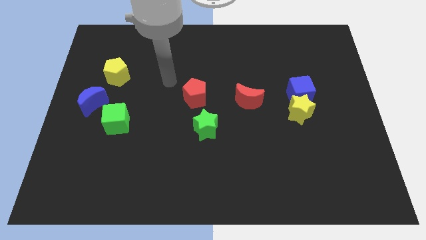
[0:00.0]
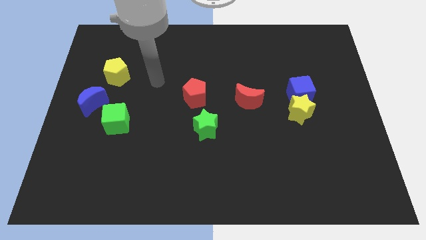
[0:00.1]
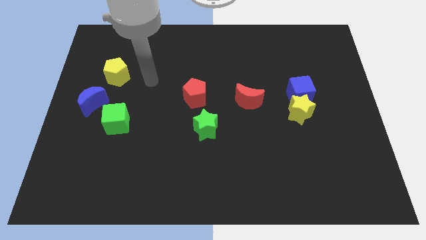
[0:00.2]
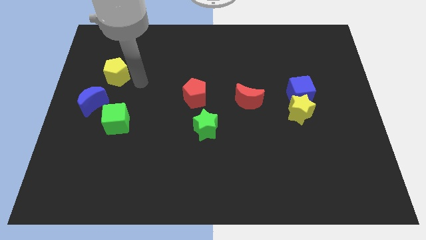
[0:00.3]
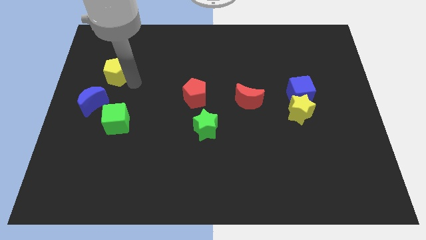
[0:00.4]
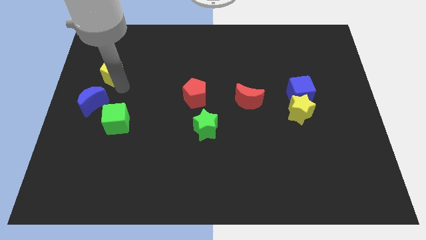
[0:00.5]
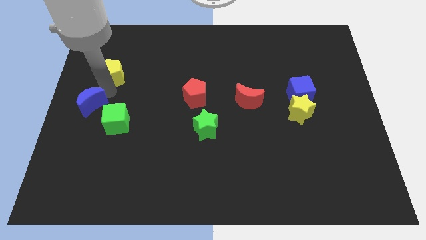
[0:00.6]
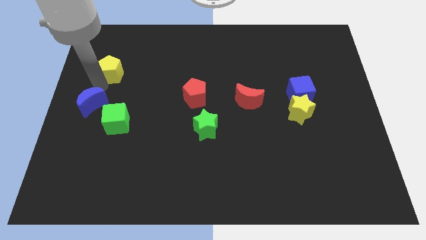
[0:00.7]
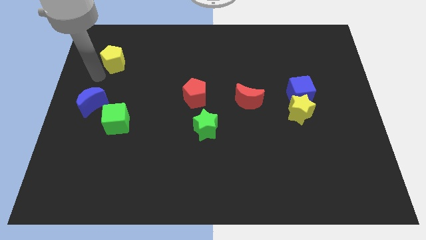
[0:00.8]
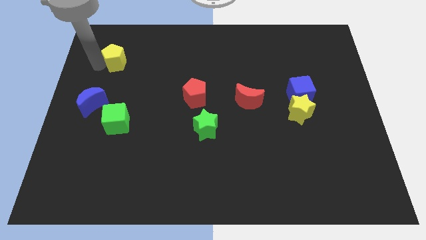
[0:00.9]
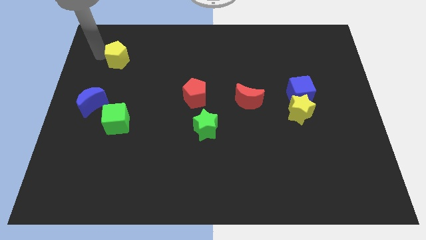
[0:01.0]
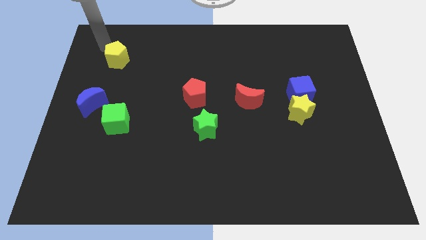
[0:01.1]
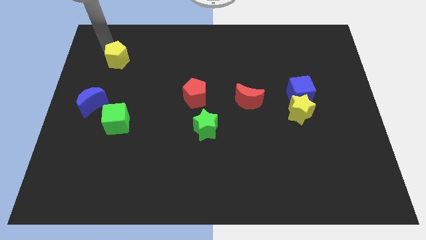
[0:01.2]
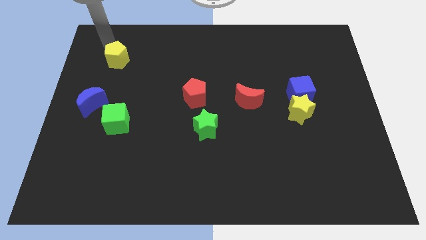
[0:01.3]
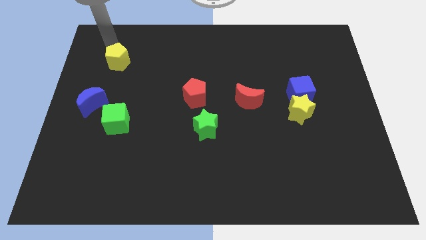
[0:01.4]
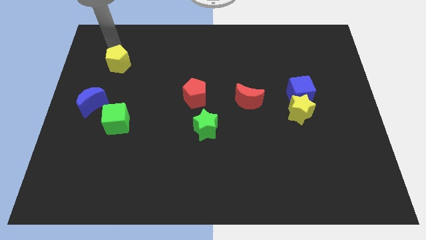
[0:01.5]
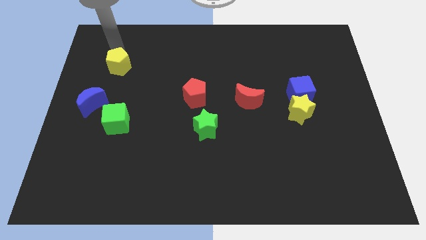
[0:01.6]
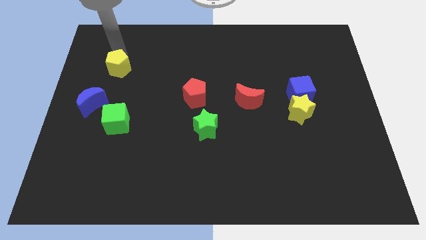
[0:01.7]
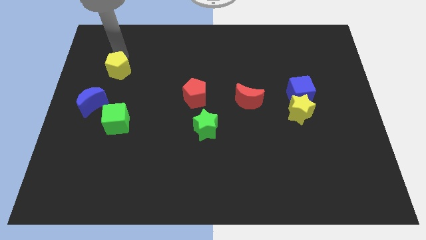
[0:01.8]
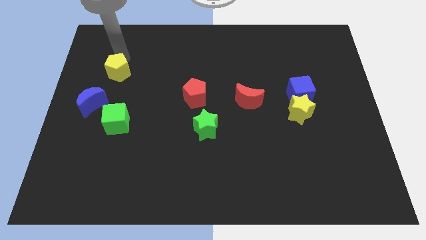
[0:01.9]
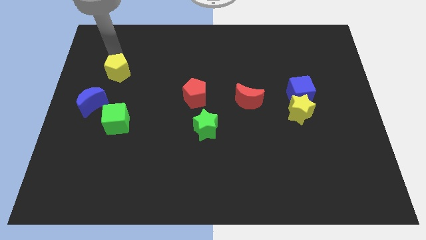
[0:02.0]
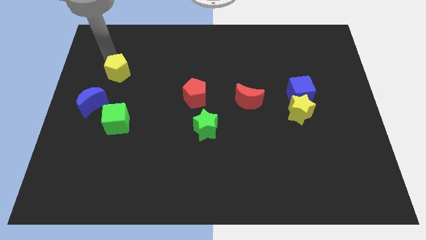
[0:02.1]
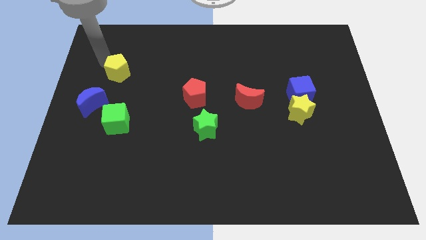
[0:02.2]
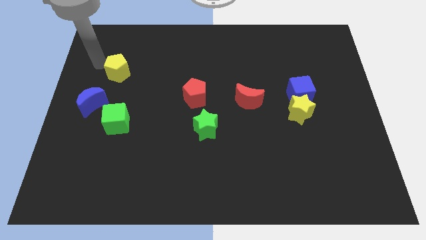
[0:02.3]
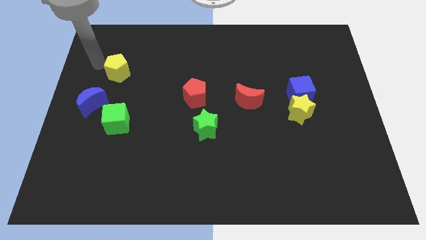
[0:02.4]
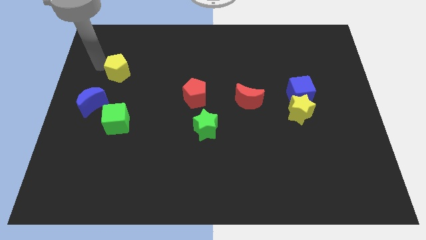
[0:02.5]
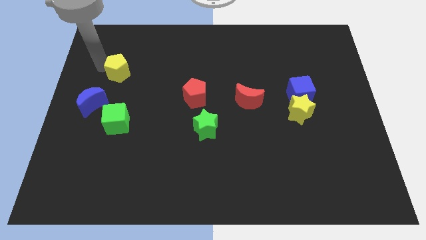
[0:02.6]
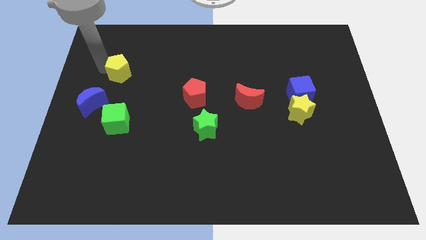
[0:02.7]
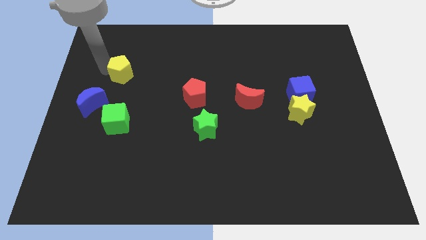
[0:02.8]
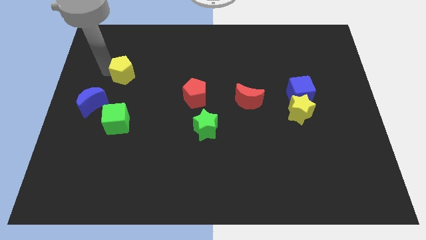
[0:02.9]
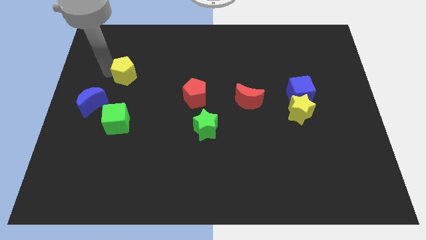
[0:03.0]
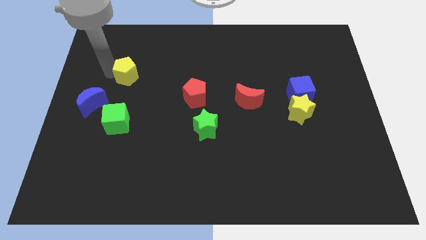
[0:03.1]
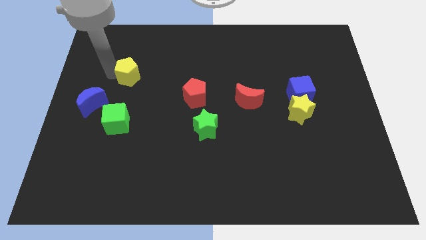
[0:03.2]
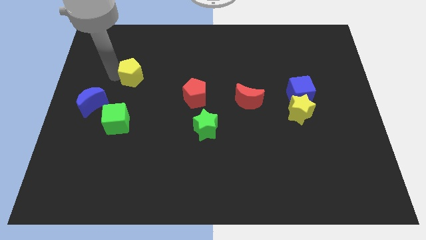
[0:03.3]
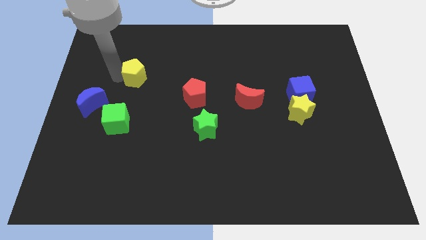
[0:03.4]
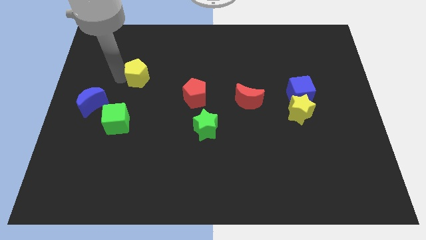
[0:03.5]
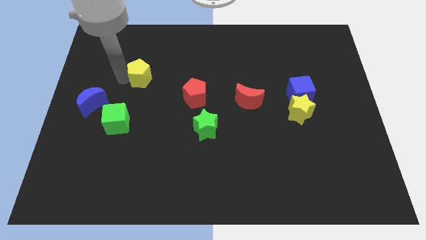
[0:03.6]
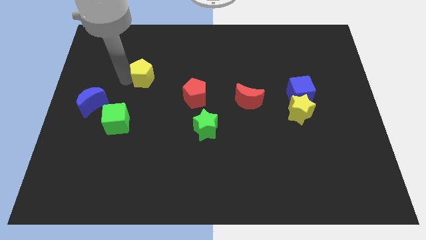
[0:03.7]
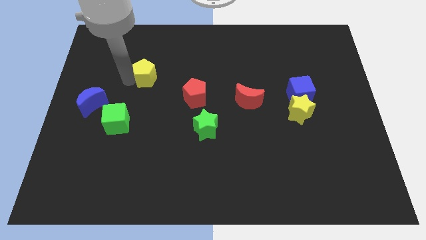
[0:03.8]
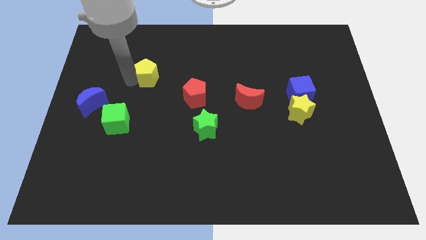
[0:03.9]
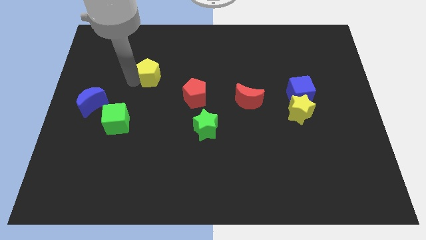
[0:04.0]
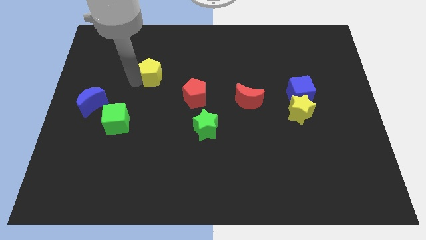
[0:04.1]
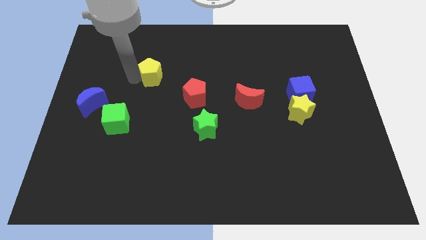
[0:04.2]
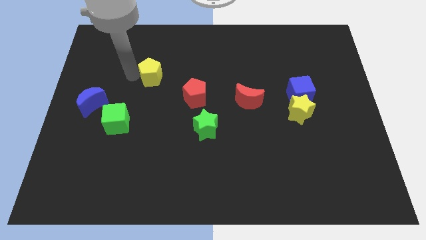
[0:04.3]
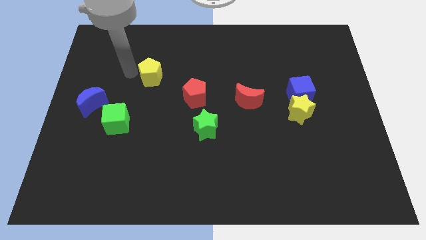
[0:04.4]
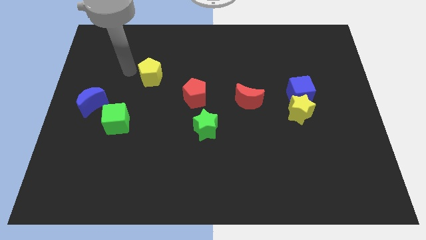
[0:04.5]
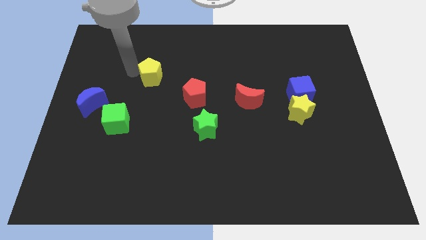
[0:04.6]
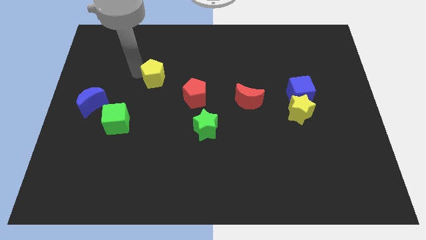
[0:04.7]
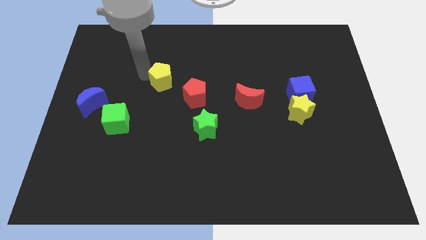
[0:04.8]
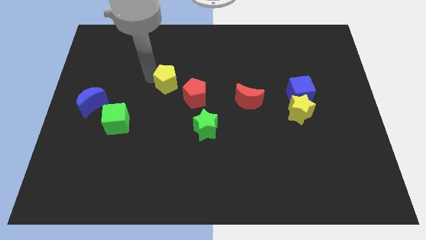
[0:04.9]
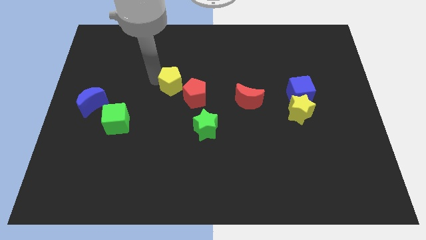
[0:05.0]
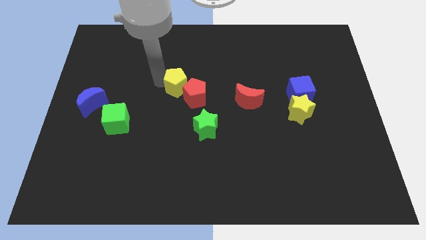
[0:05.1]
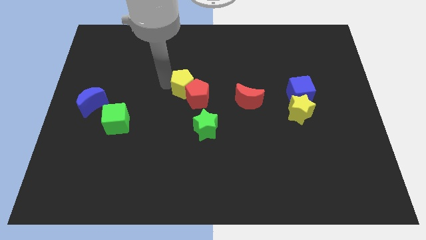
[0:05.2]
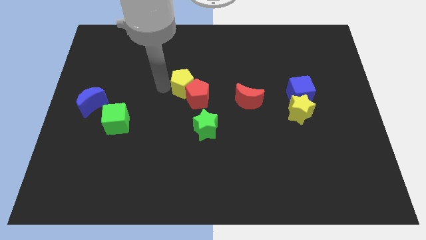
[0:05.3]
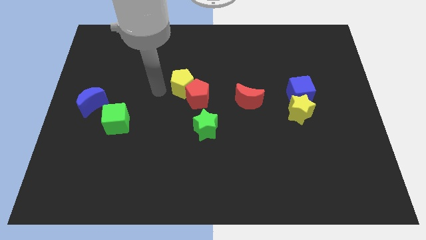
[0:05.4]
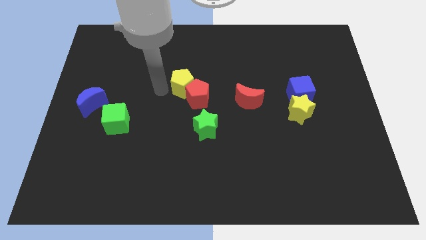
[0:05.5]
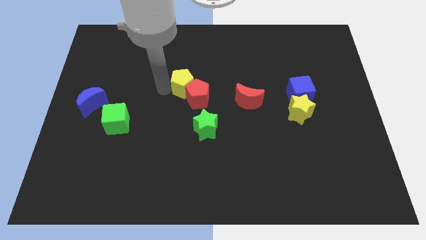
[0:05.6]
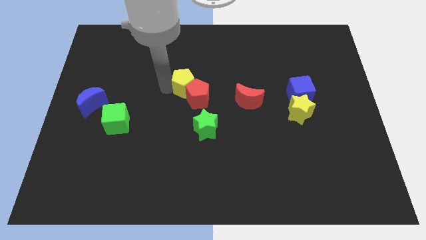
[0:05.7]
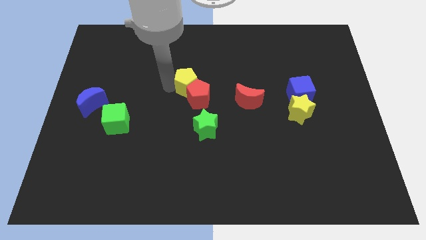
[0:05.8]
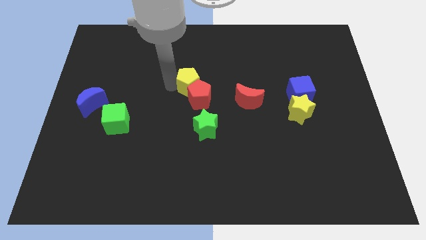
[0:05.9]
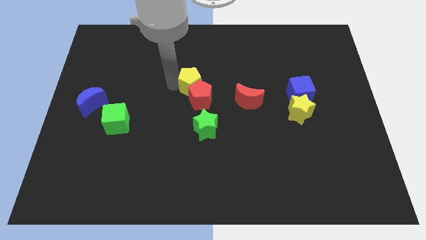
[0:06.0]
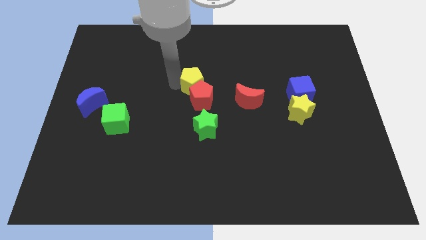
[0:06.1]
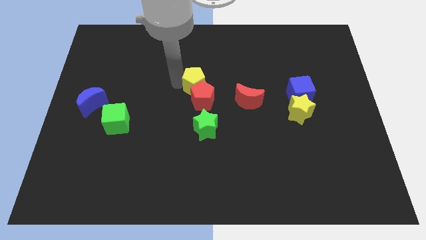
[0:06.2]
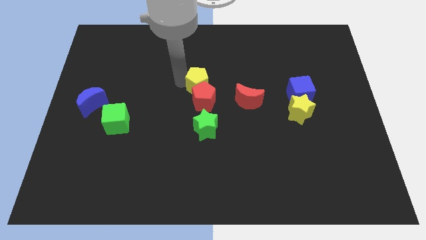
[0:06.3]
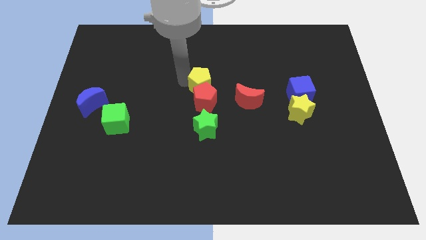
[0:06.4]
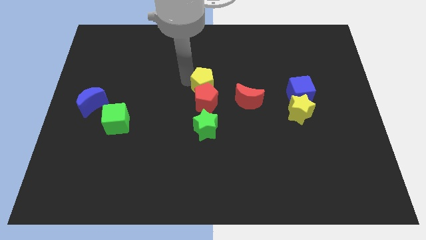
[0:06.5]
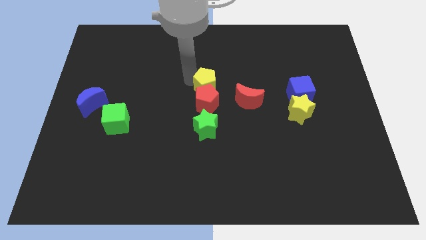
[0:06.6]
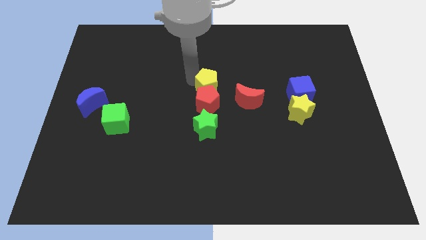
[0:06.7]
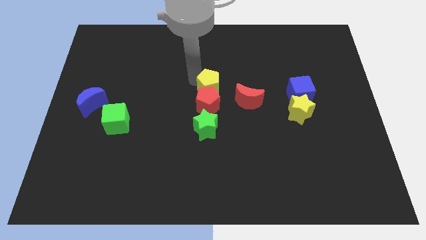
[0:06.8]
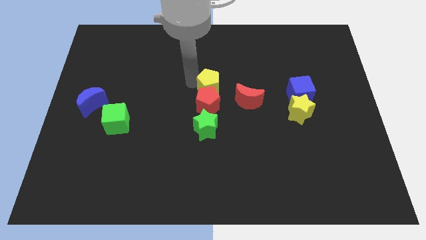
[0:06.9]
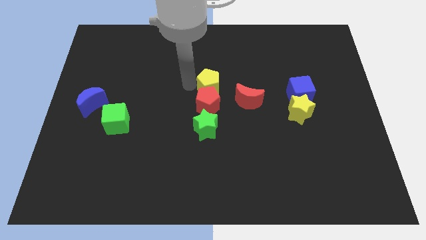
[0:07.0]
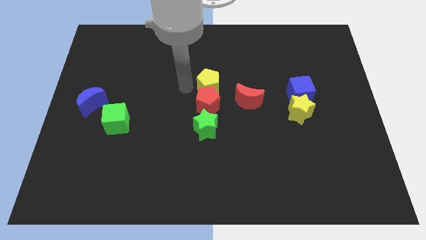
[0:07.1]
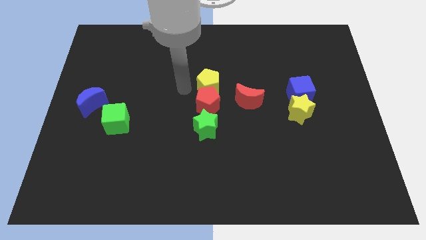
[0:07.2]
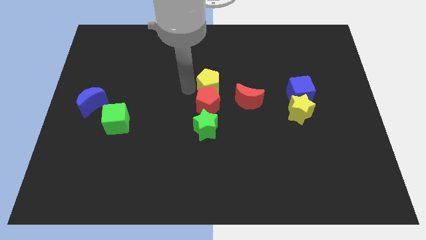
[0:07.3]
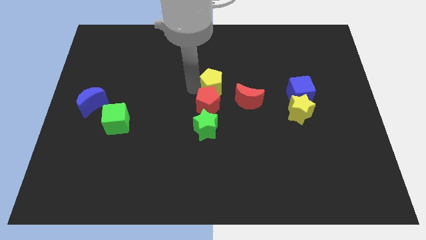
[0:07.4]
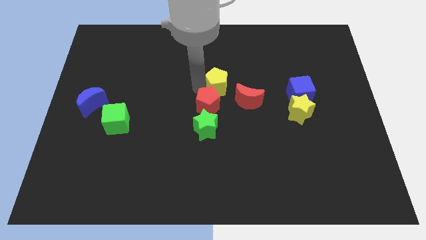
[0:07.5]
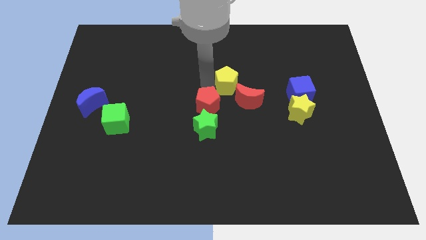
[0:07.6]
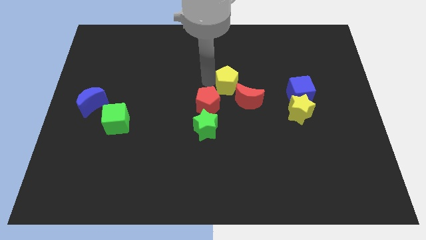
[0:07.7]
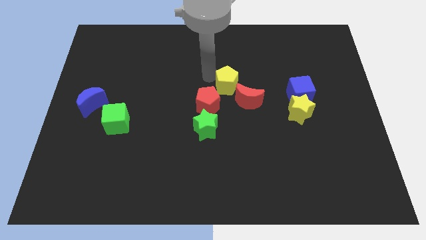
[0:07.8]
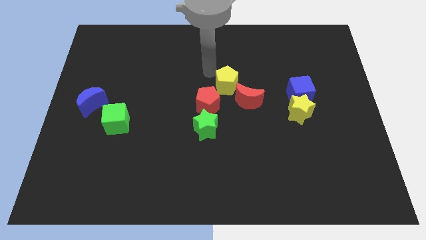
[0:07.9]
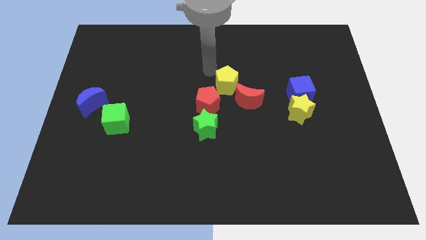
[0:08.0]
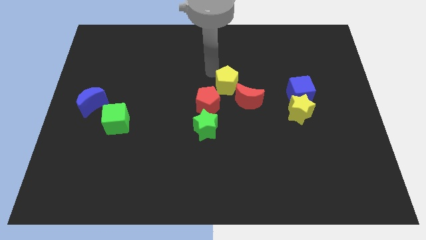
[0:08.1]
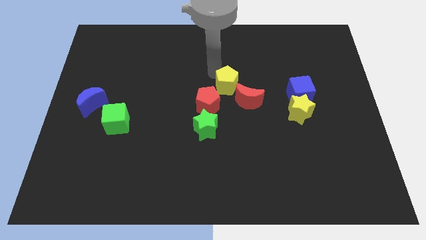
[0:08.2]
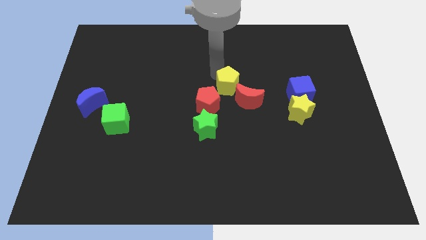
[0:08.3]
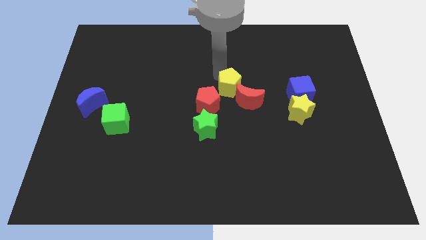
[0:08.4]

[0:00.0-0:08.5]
slide the yellow pentagon towards the red moon
